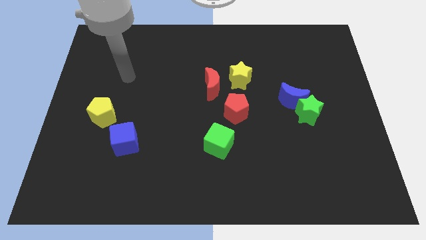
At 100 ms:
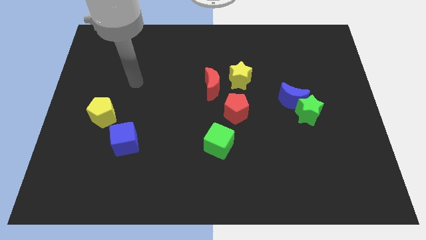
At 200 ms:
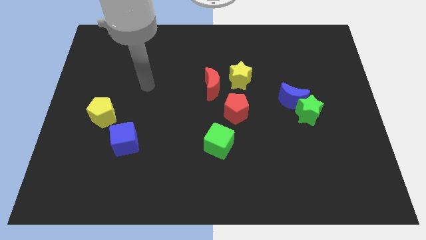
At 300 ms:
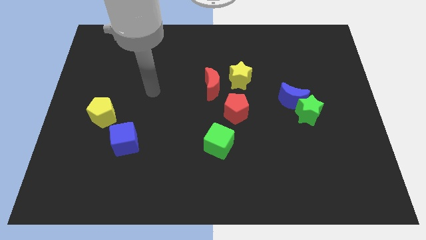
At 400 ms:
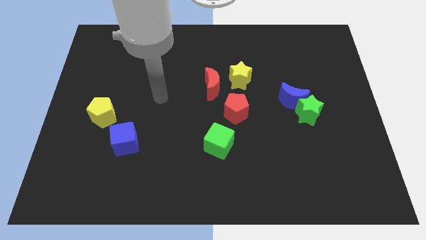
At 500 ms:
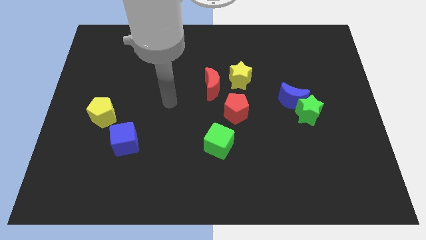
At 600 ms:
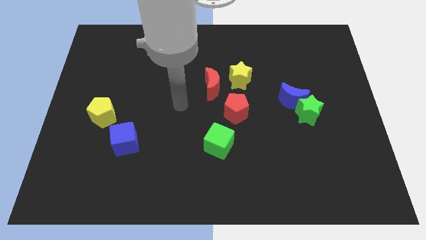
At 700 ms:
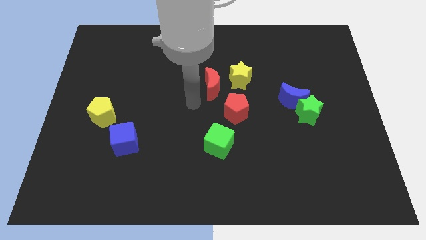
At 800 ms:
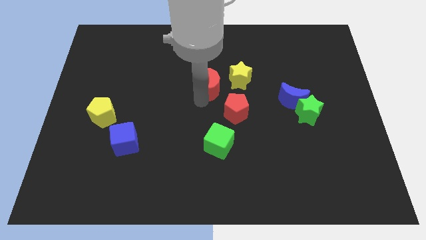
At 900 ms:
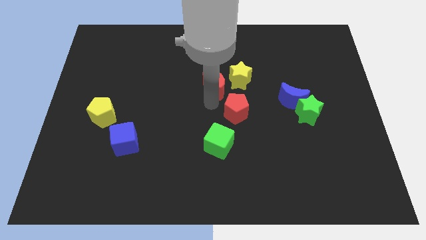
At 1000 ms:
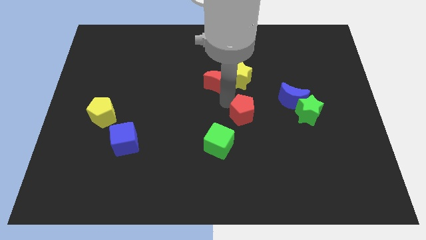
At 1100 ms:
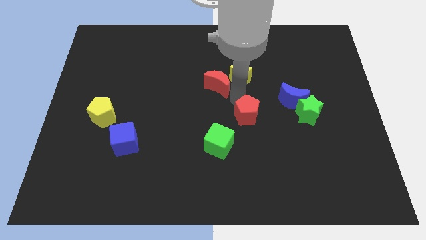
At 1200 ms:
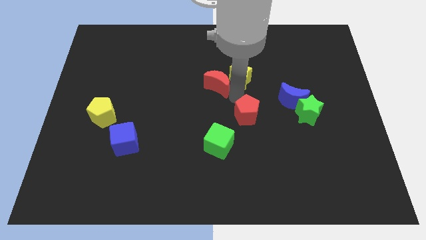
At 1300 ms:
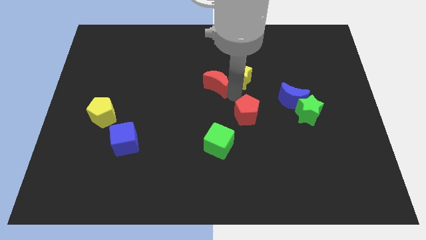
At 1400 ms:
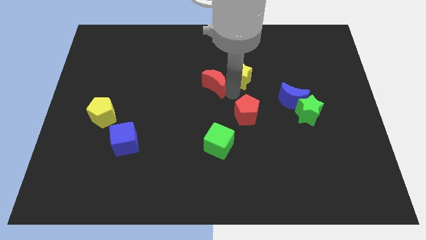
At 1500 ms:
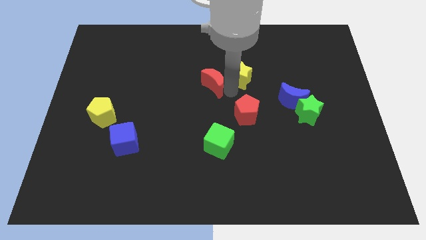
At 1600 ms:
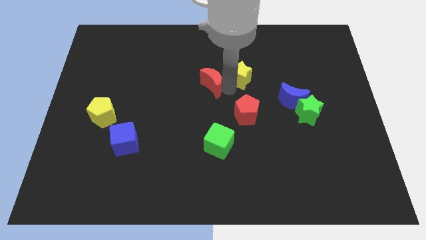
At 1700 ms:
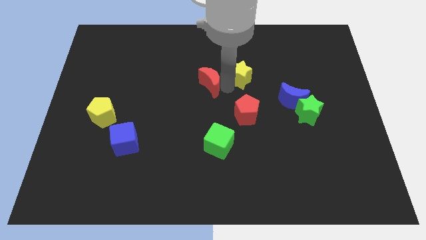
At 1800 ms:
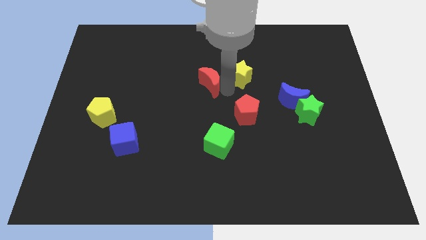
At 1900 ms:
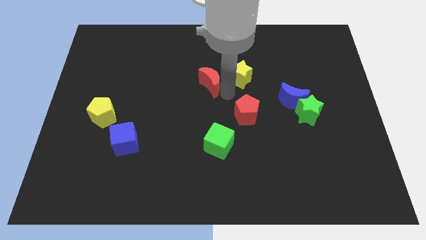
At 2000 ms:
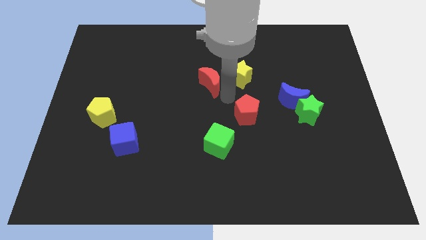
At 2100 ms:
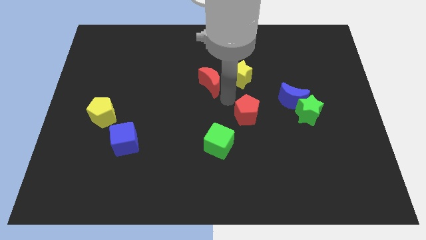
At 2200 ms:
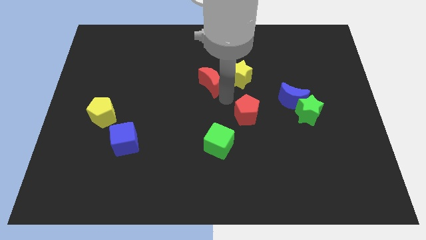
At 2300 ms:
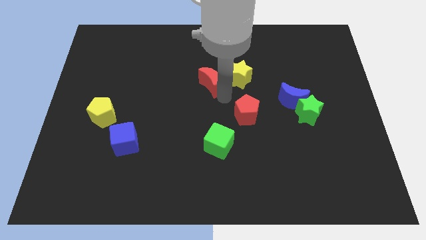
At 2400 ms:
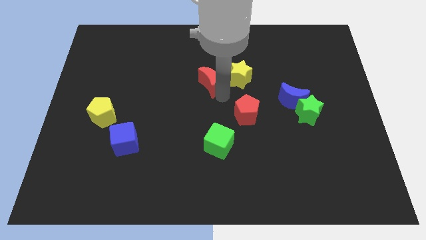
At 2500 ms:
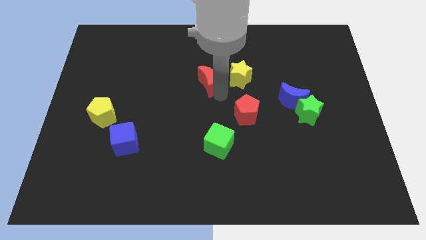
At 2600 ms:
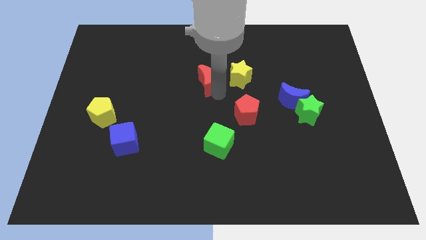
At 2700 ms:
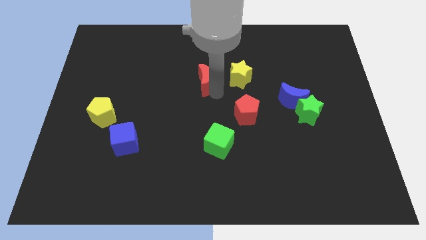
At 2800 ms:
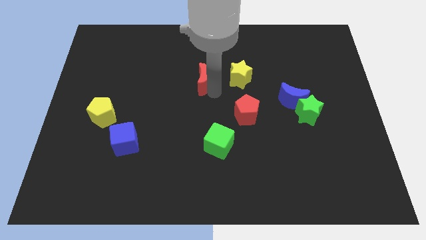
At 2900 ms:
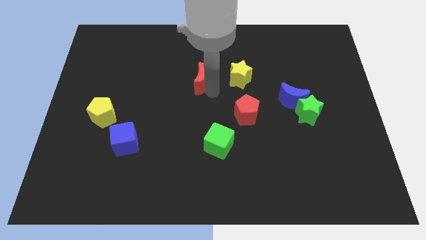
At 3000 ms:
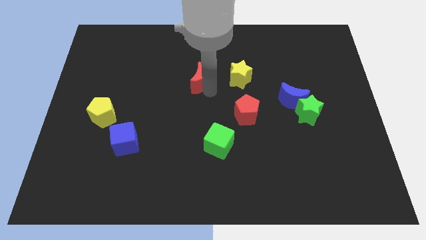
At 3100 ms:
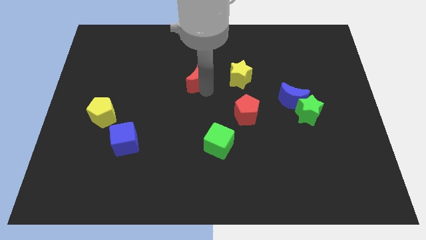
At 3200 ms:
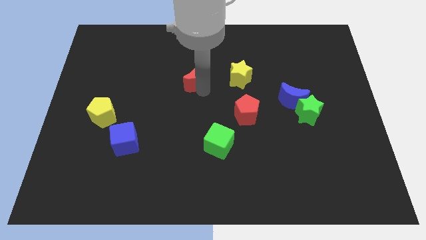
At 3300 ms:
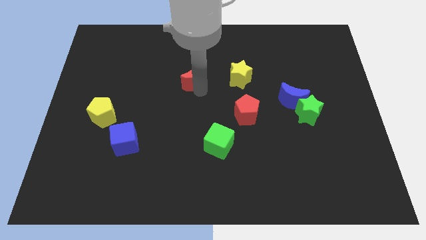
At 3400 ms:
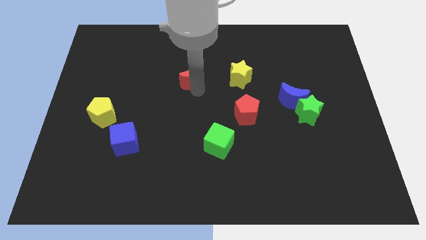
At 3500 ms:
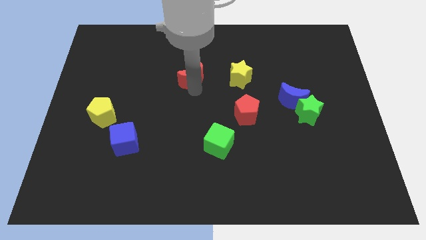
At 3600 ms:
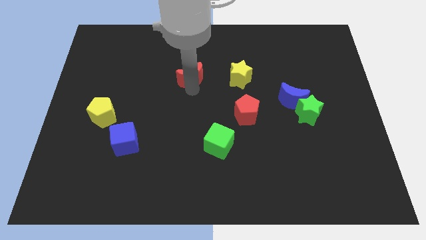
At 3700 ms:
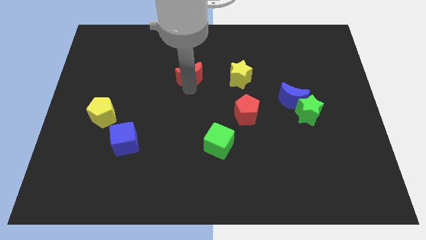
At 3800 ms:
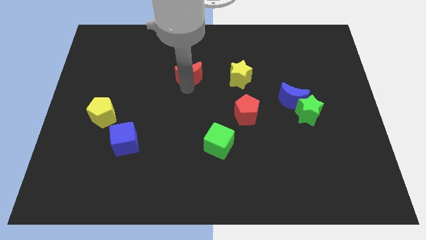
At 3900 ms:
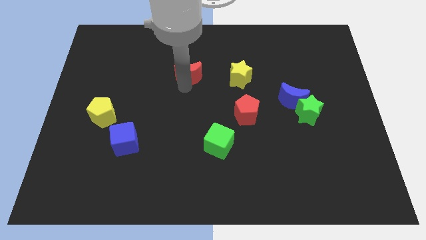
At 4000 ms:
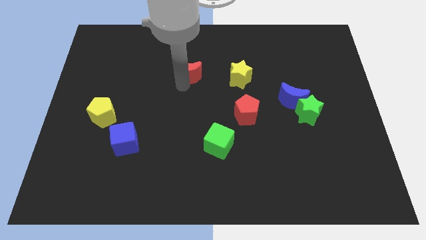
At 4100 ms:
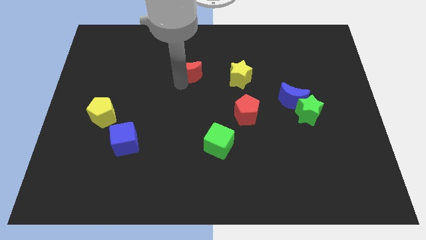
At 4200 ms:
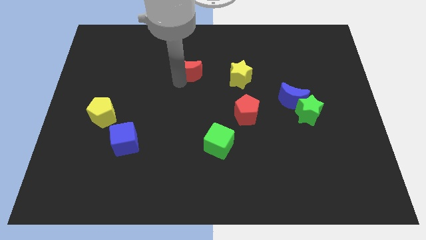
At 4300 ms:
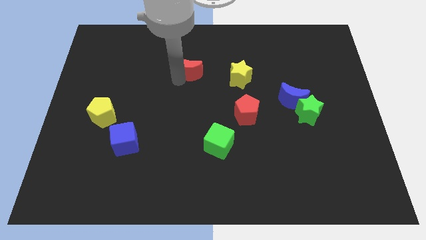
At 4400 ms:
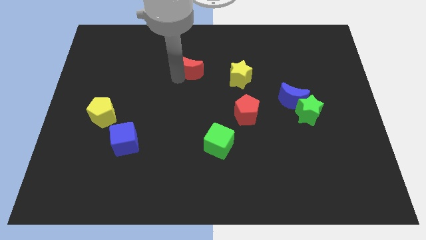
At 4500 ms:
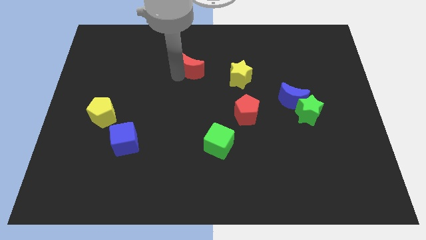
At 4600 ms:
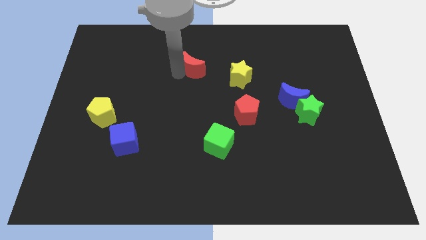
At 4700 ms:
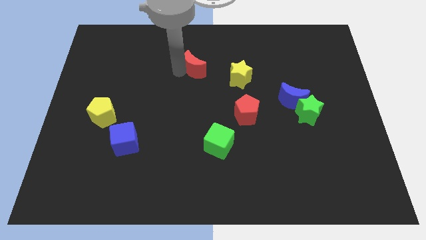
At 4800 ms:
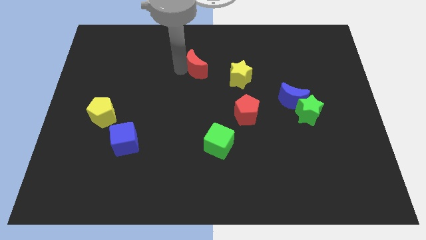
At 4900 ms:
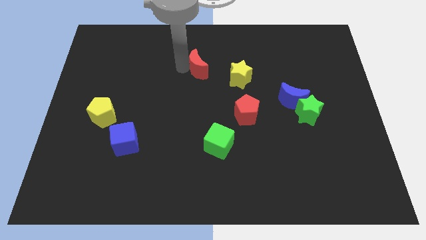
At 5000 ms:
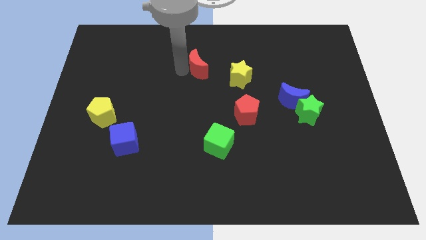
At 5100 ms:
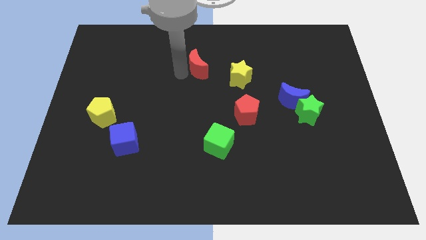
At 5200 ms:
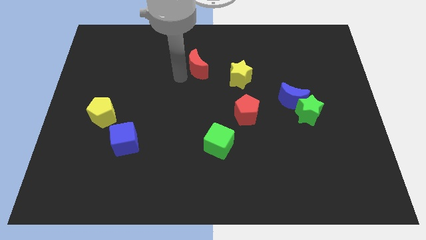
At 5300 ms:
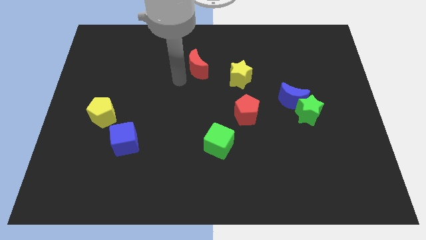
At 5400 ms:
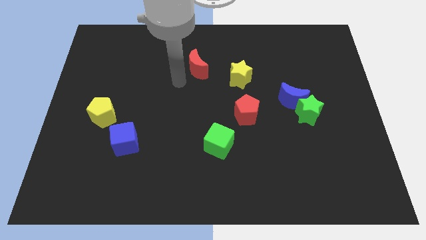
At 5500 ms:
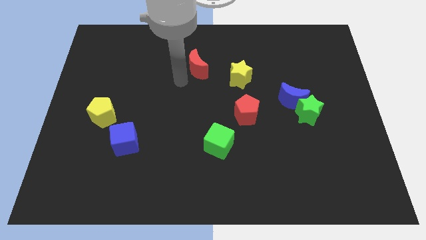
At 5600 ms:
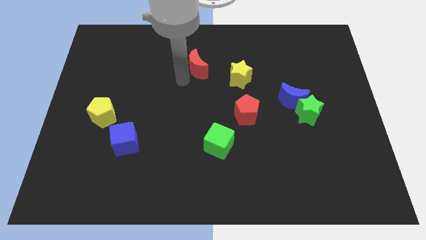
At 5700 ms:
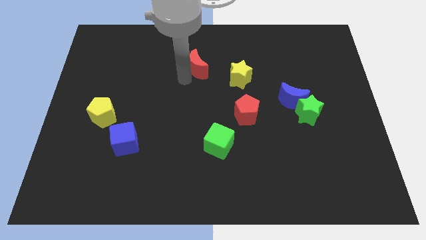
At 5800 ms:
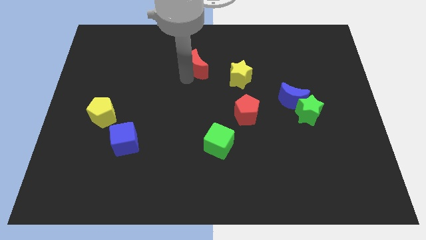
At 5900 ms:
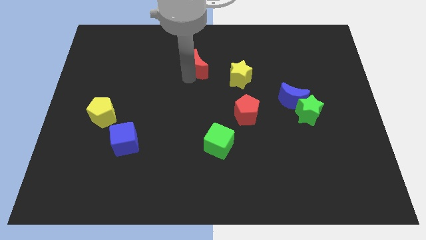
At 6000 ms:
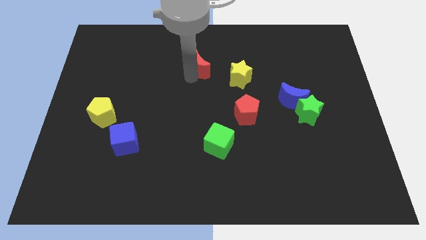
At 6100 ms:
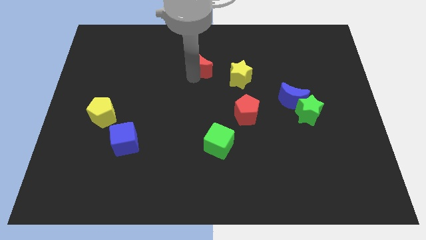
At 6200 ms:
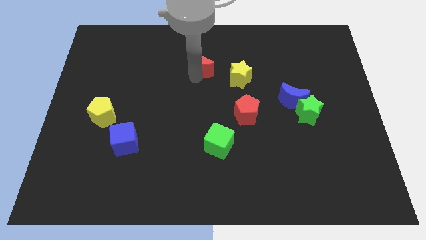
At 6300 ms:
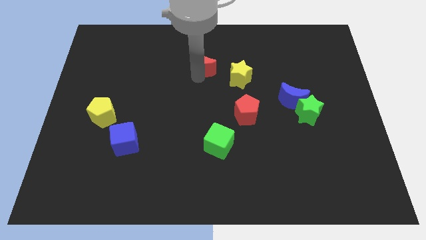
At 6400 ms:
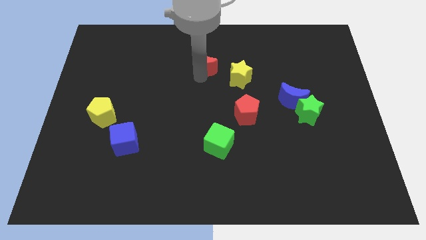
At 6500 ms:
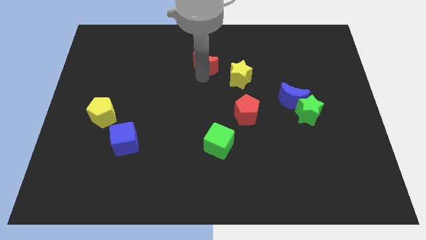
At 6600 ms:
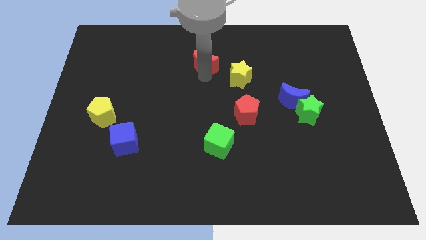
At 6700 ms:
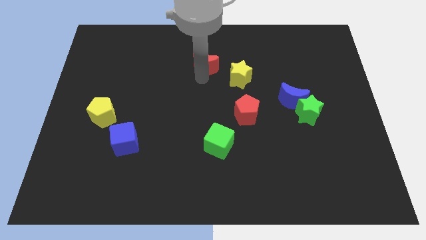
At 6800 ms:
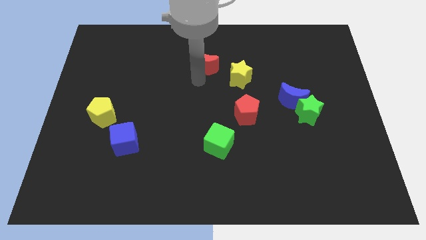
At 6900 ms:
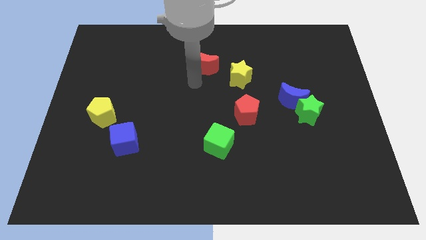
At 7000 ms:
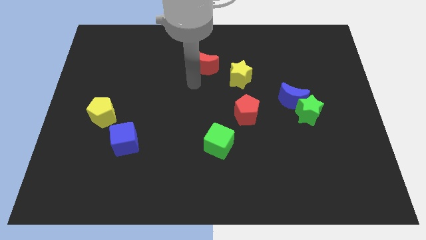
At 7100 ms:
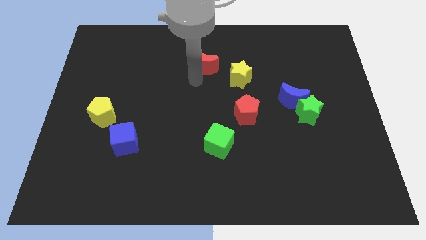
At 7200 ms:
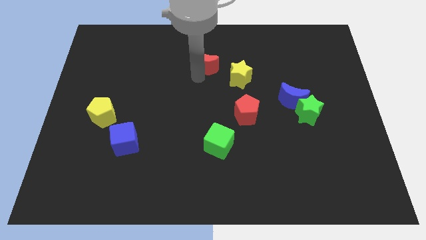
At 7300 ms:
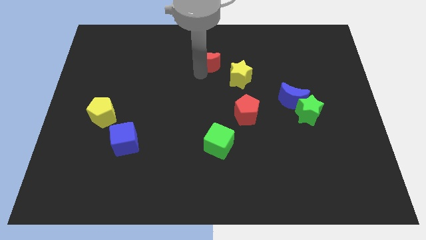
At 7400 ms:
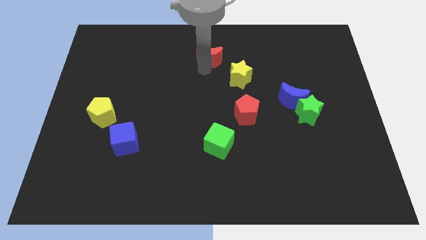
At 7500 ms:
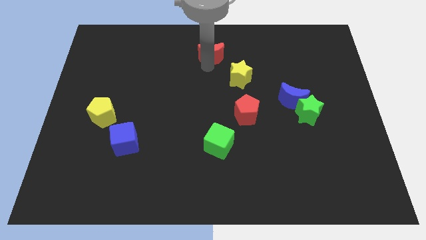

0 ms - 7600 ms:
put the red moon to the top
